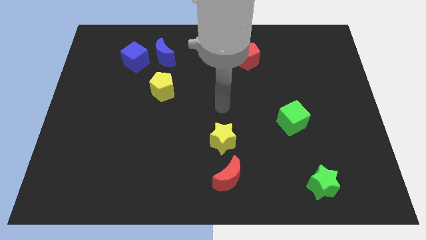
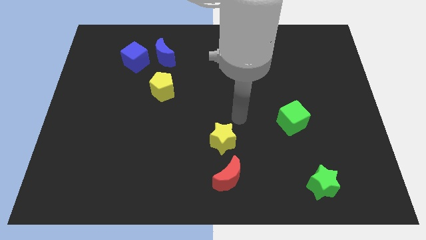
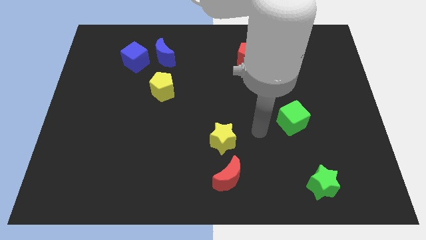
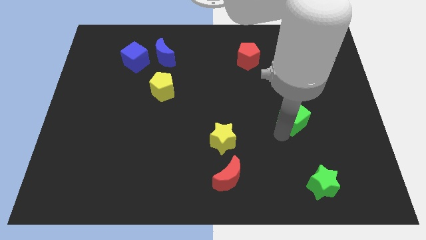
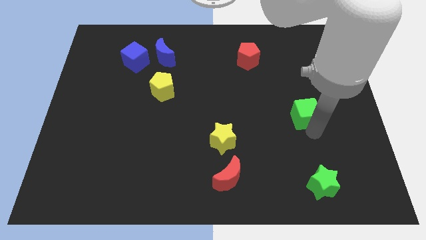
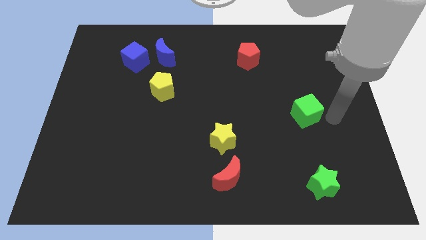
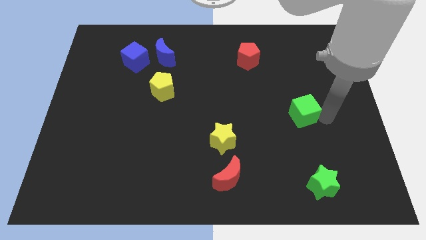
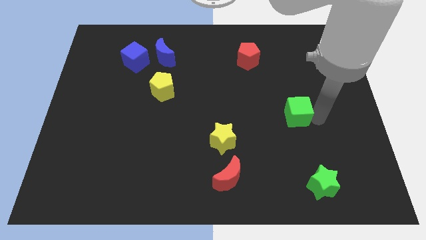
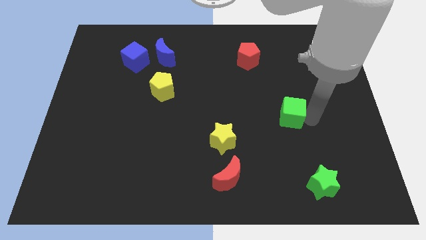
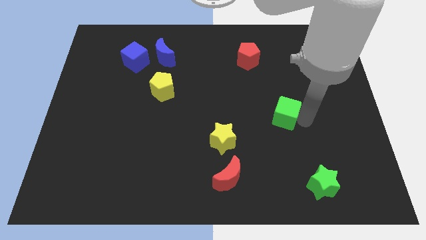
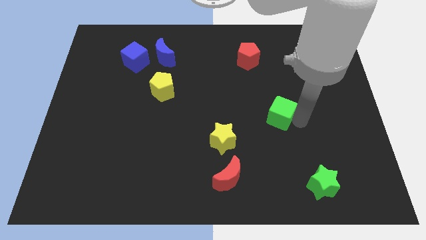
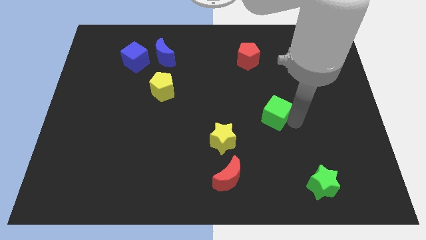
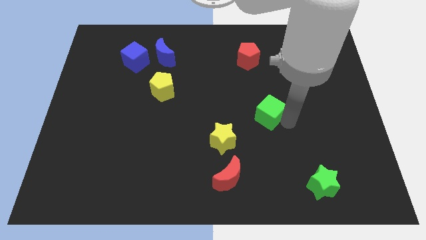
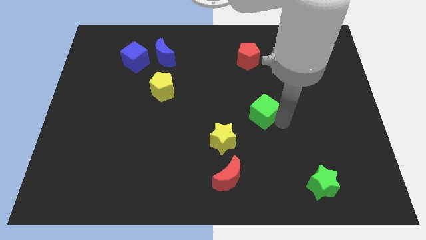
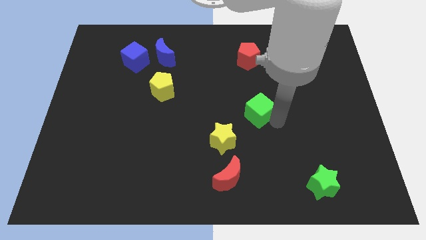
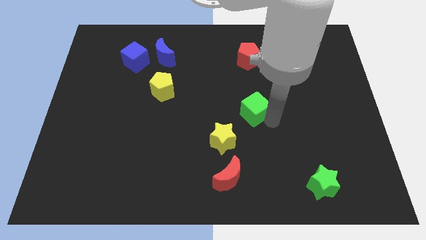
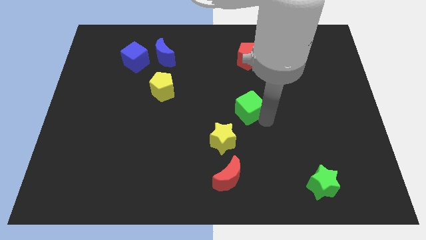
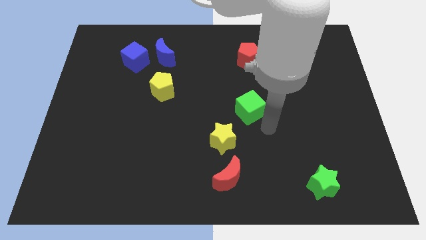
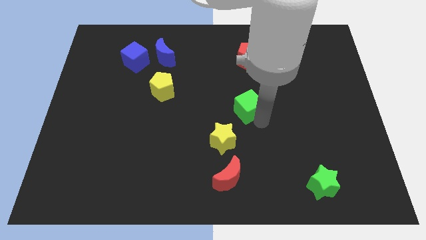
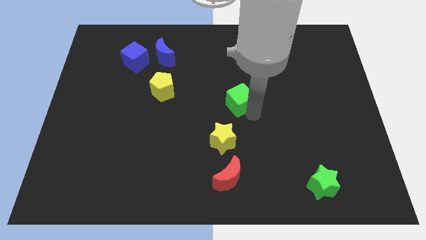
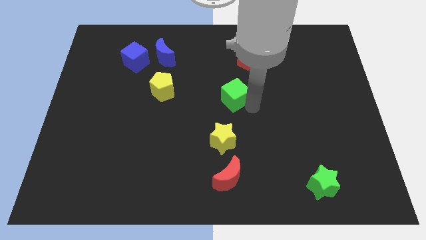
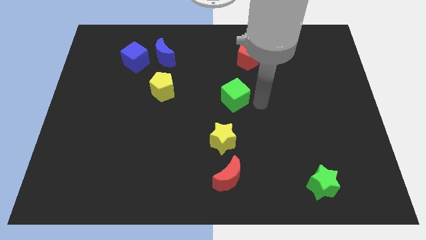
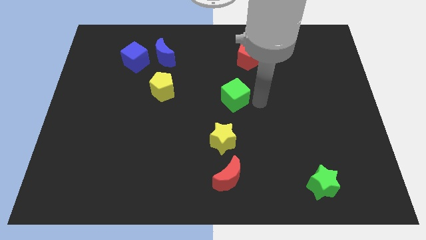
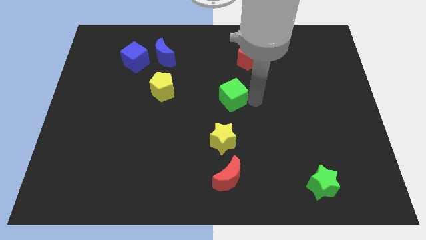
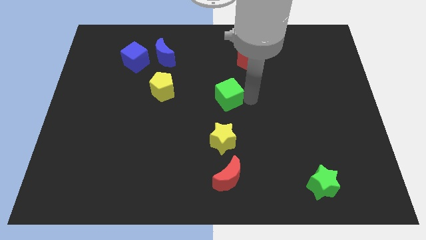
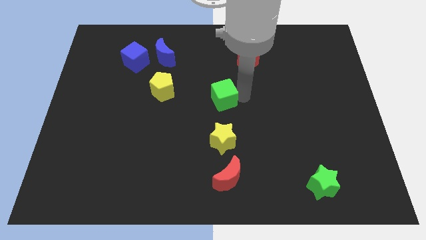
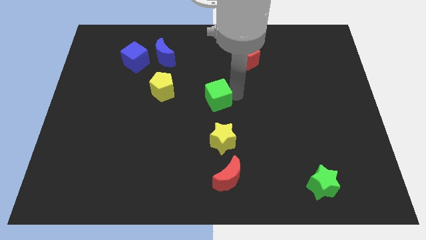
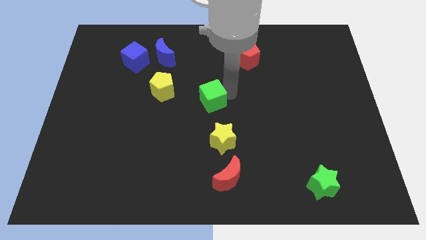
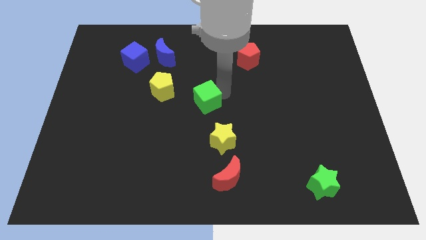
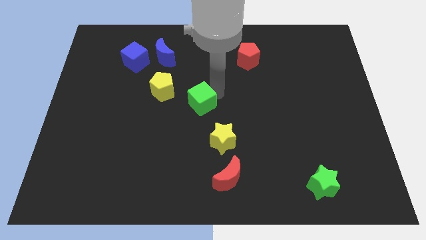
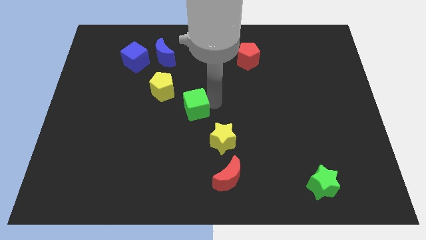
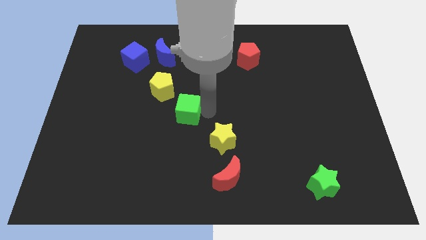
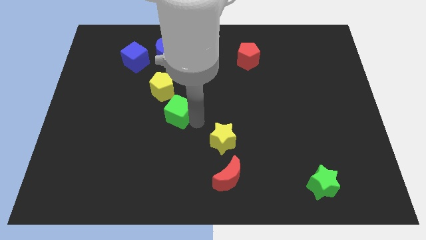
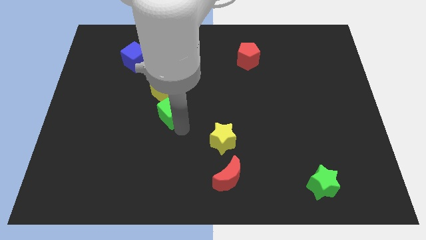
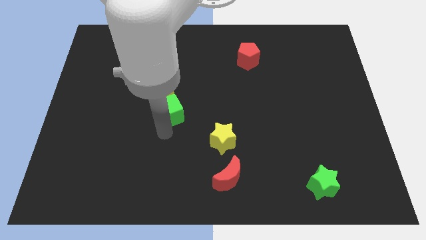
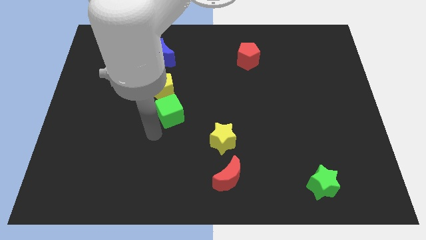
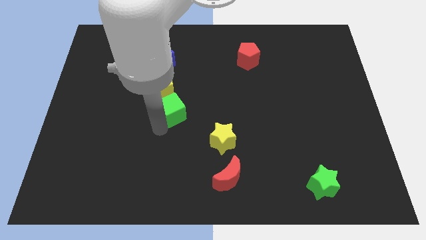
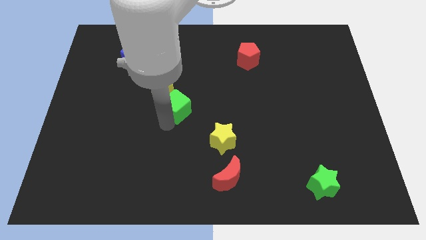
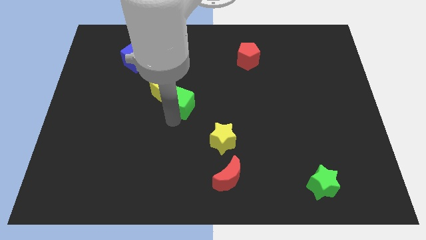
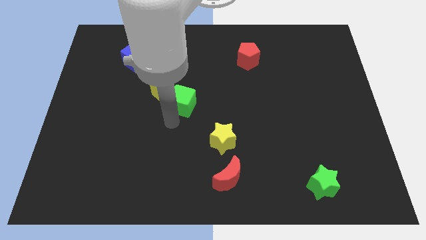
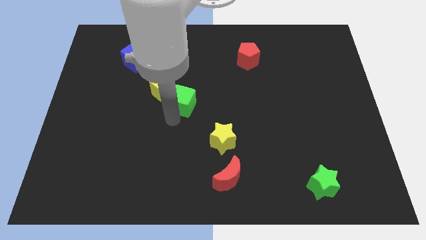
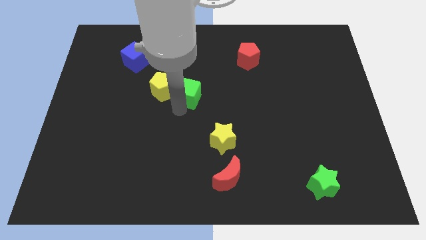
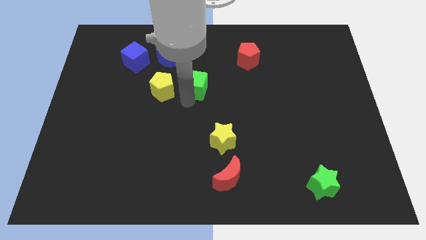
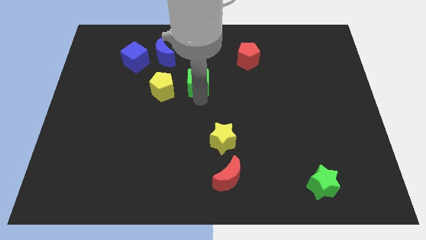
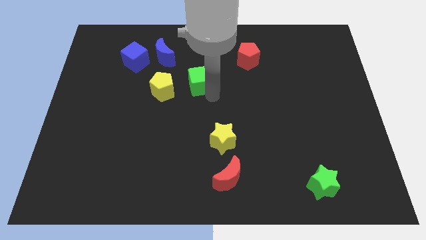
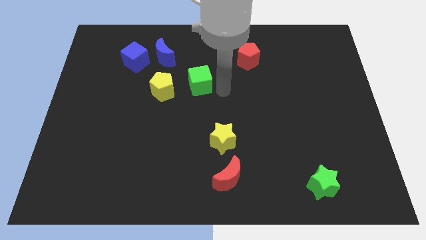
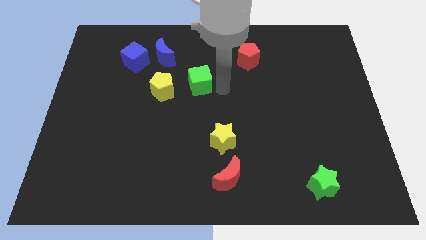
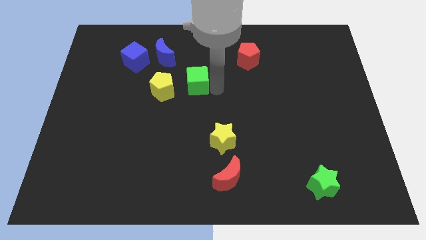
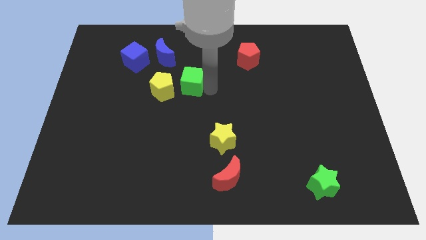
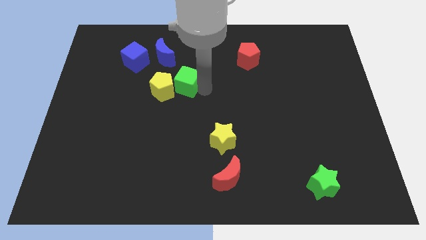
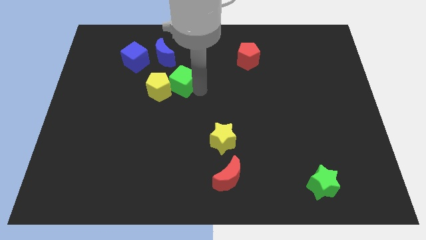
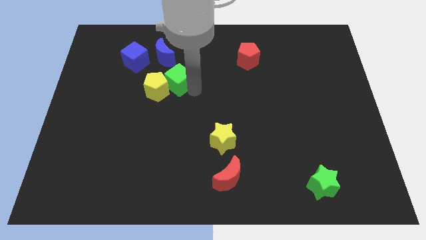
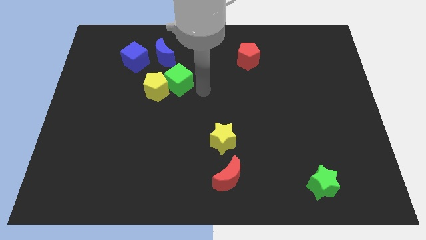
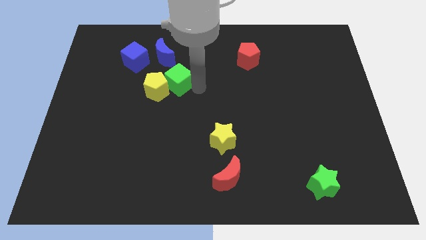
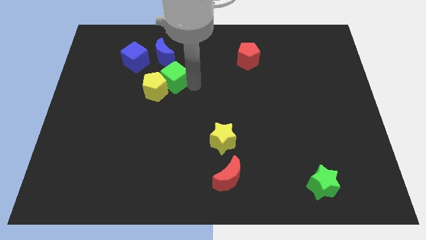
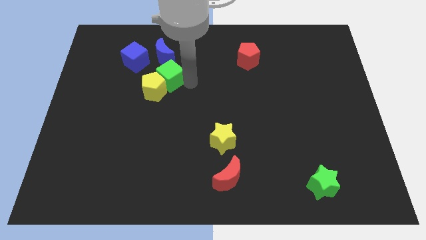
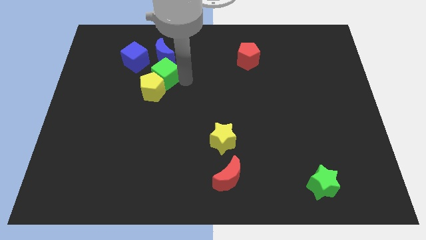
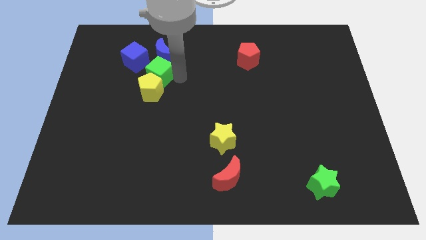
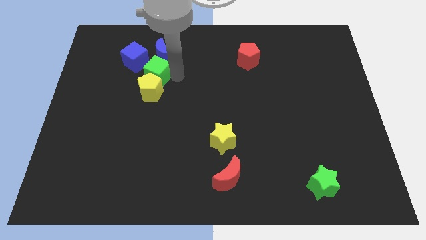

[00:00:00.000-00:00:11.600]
slide the green cube to the top left side of the yellow pentagon

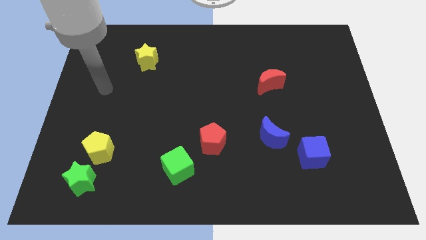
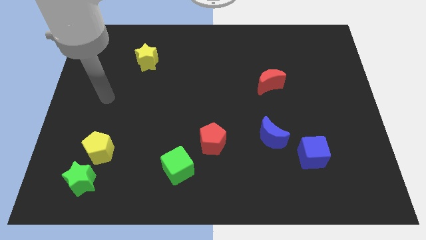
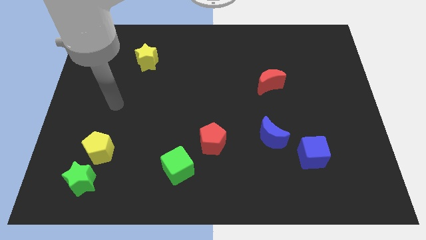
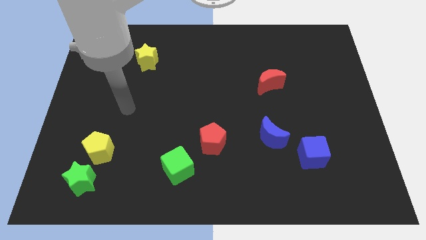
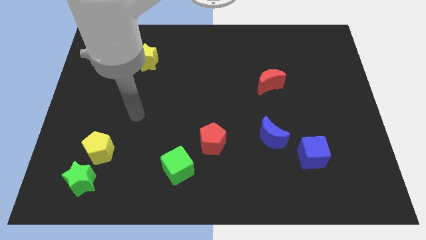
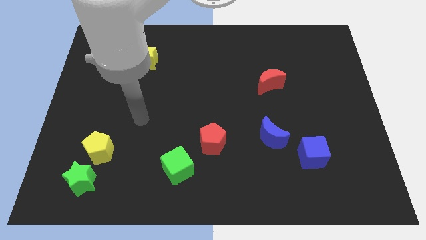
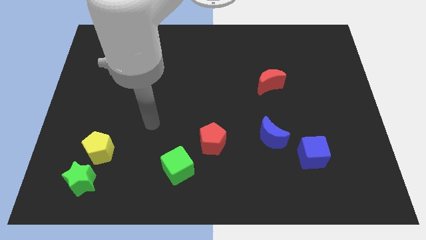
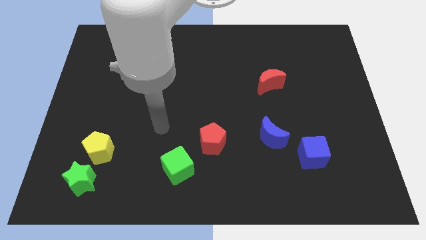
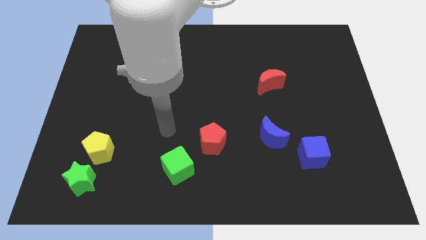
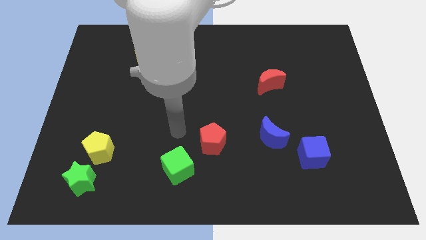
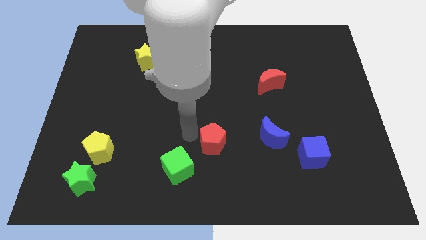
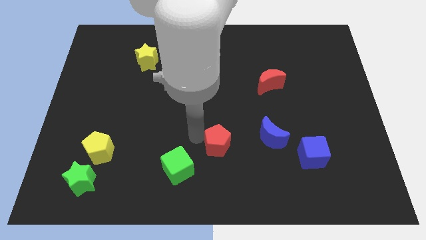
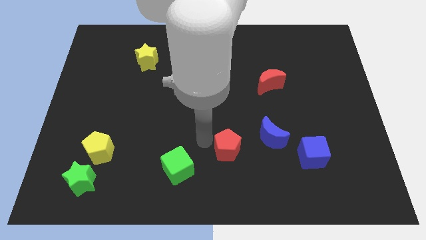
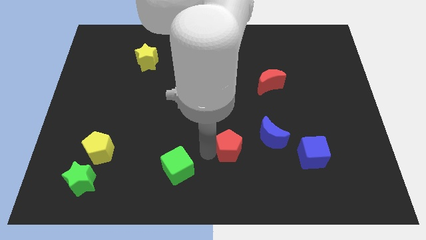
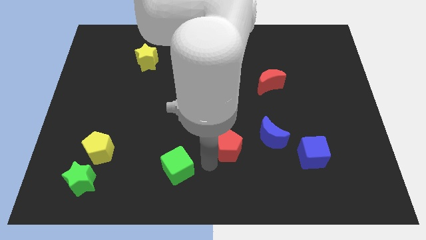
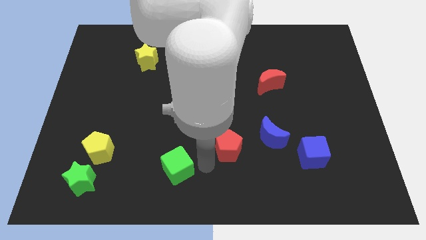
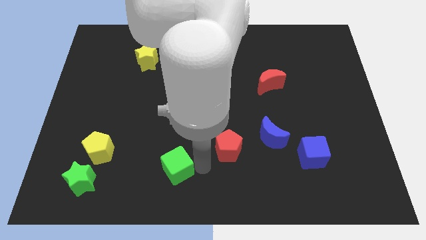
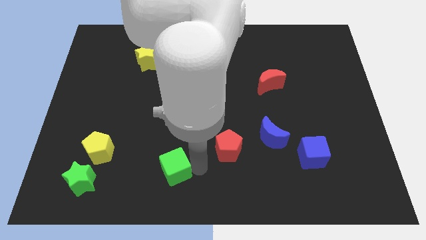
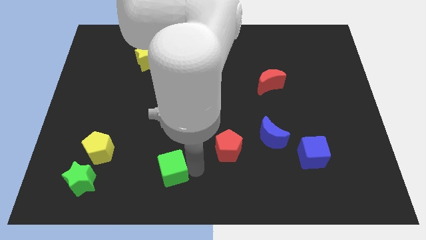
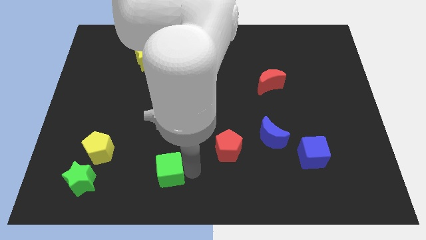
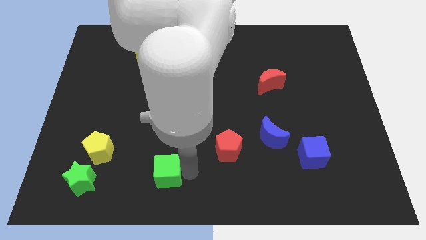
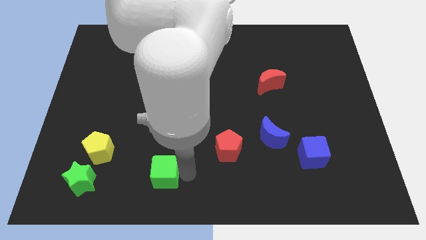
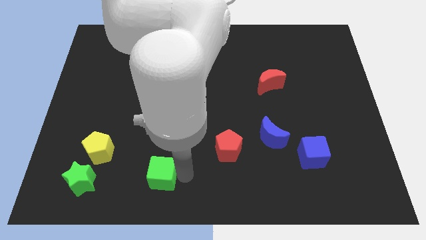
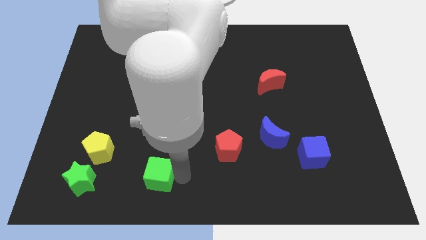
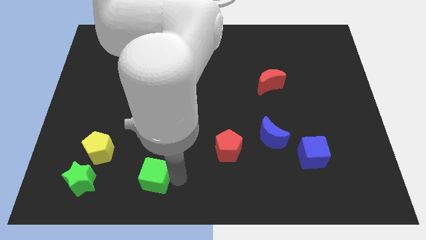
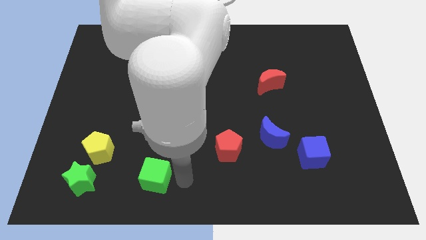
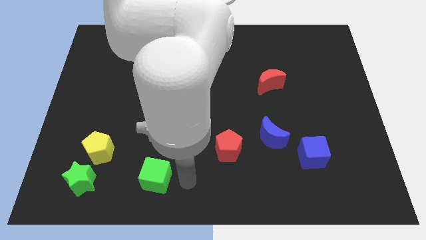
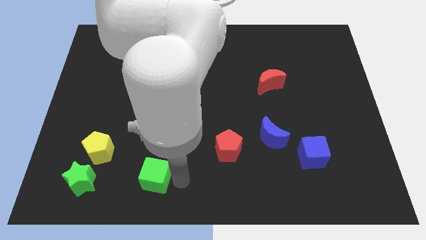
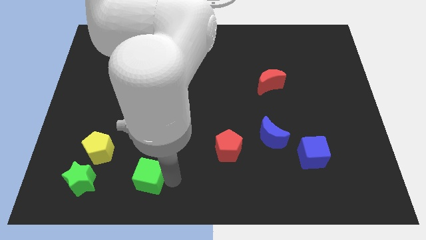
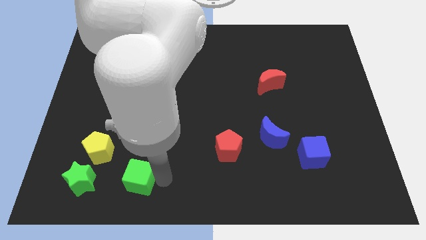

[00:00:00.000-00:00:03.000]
put the green cube to the bottom right side of the yellow pentagon
